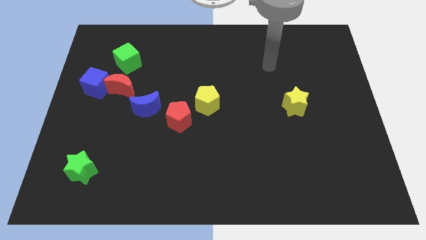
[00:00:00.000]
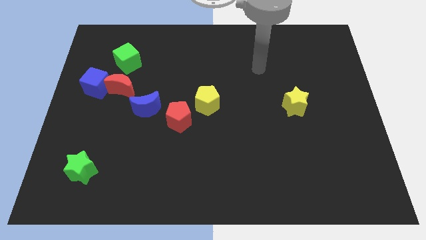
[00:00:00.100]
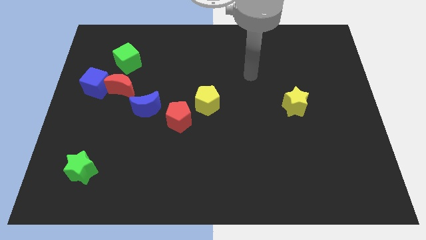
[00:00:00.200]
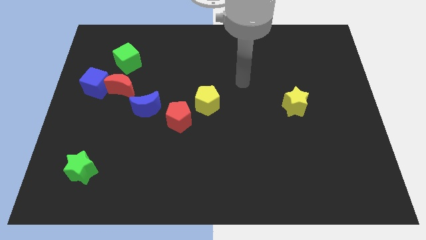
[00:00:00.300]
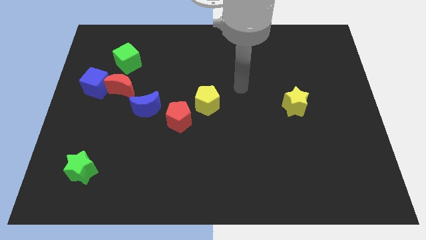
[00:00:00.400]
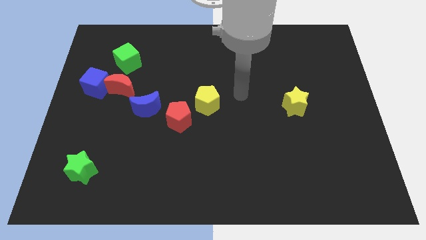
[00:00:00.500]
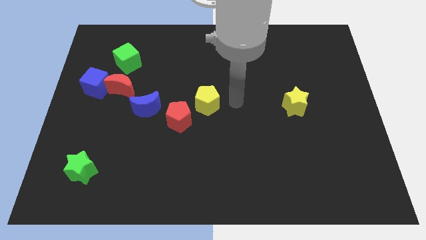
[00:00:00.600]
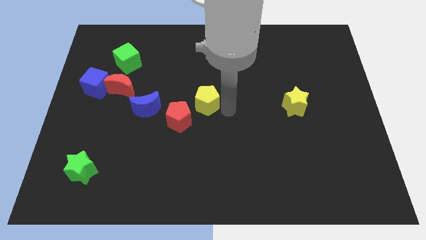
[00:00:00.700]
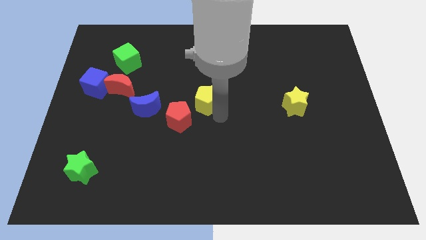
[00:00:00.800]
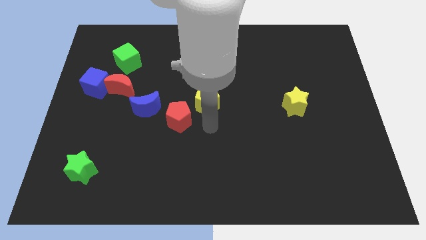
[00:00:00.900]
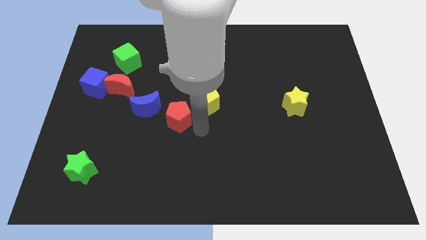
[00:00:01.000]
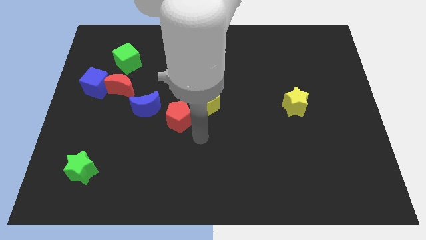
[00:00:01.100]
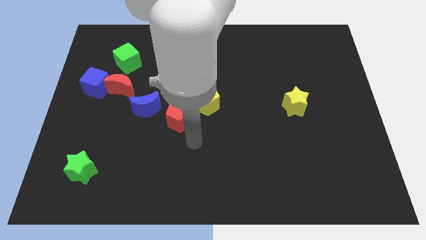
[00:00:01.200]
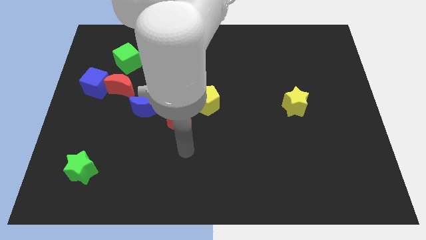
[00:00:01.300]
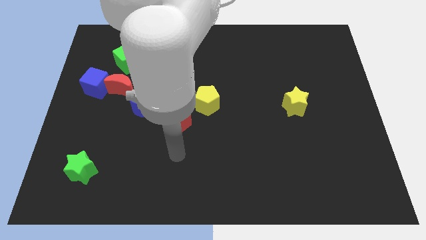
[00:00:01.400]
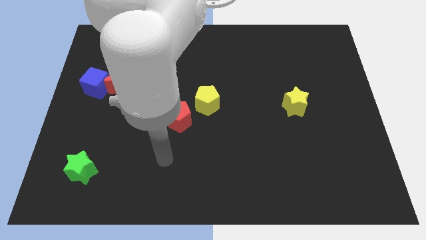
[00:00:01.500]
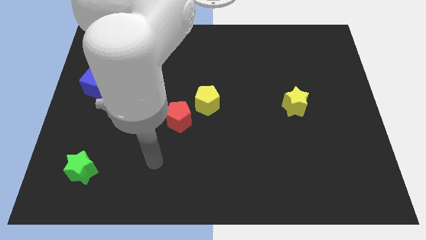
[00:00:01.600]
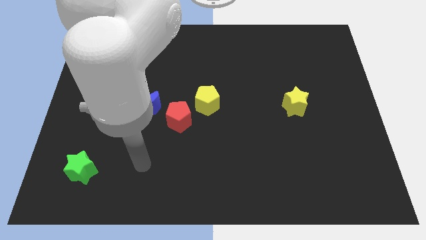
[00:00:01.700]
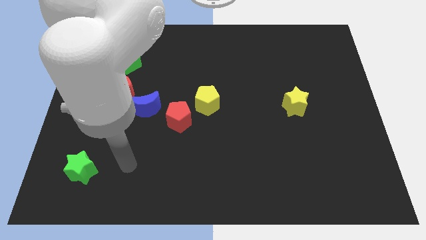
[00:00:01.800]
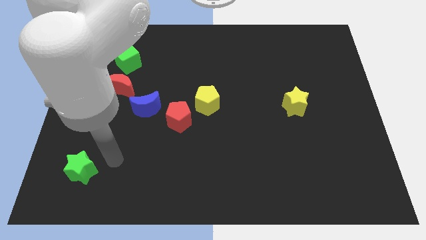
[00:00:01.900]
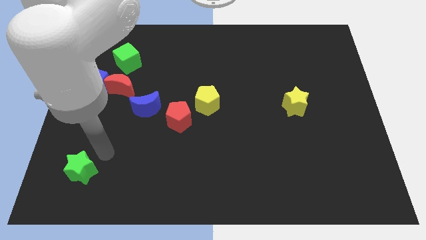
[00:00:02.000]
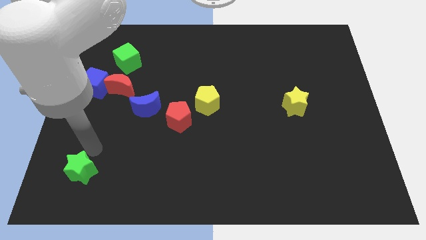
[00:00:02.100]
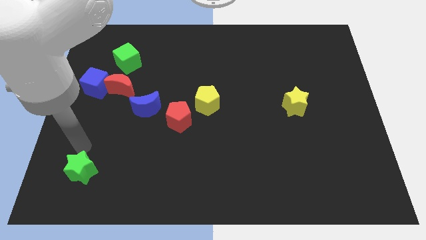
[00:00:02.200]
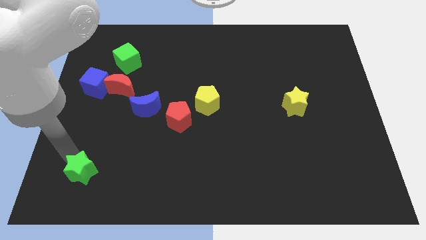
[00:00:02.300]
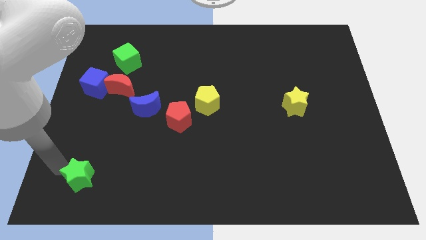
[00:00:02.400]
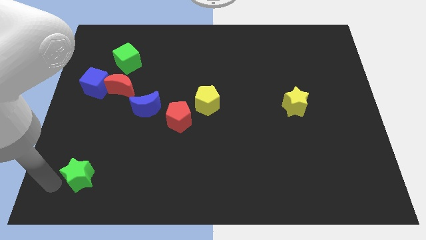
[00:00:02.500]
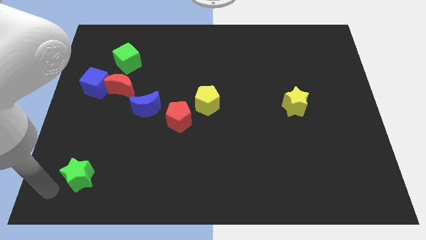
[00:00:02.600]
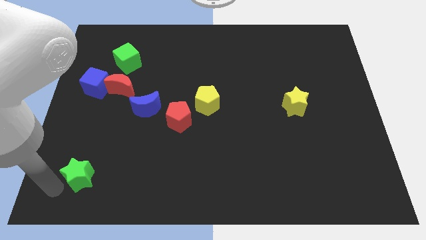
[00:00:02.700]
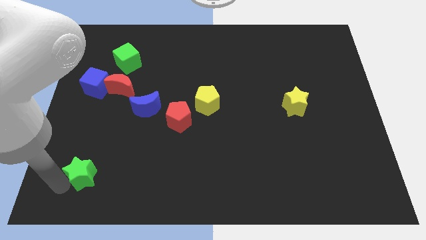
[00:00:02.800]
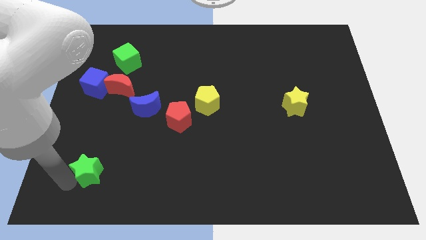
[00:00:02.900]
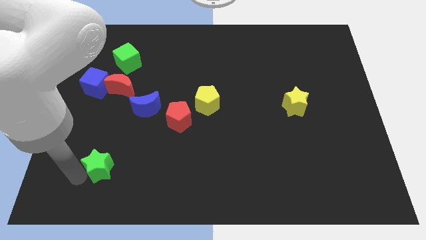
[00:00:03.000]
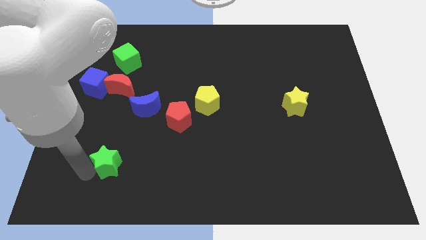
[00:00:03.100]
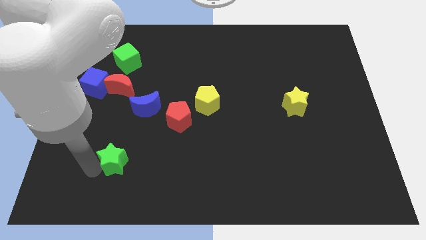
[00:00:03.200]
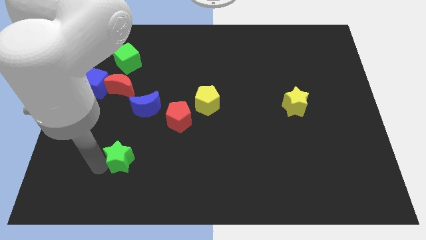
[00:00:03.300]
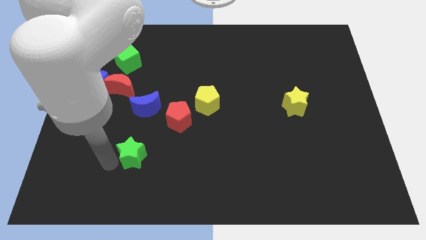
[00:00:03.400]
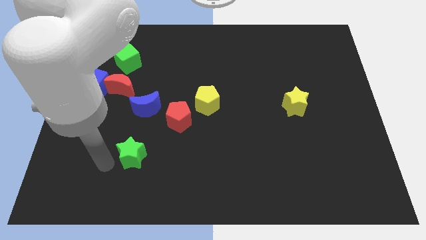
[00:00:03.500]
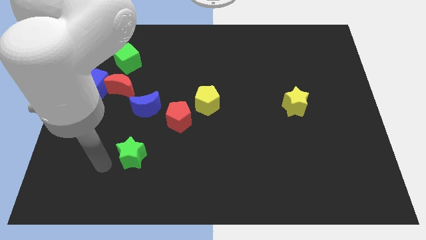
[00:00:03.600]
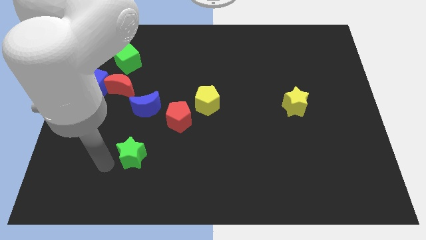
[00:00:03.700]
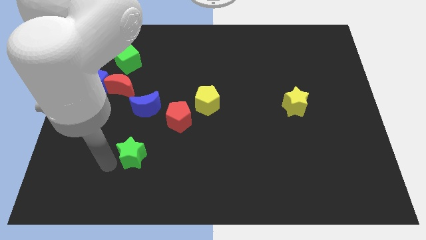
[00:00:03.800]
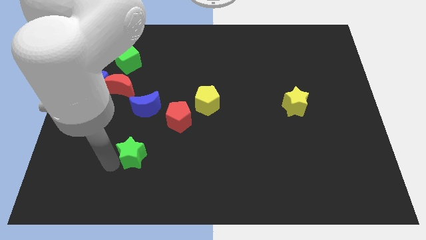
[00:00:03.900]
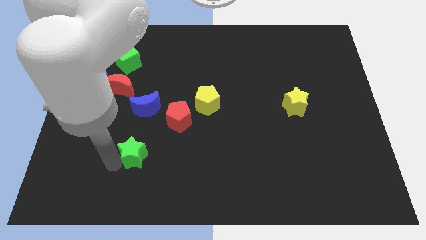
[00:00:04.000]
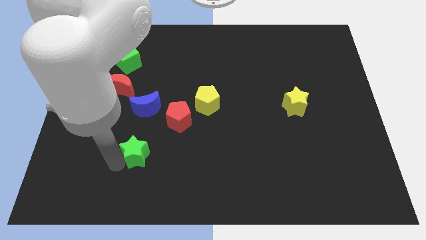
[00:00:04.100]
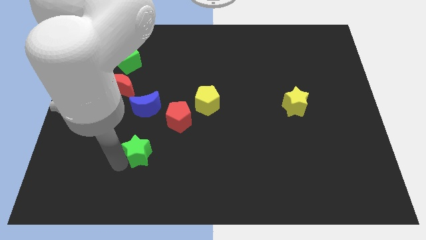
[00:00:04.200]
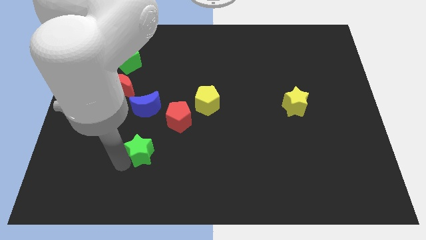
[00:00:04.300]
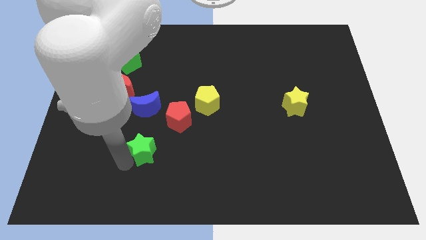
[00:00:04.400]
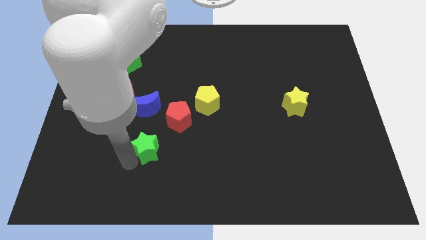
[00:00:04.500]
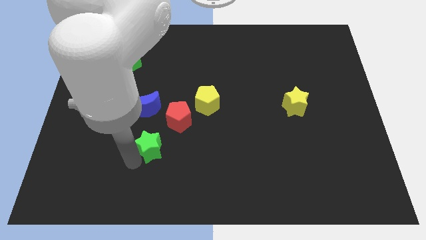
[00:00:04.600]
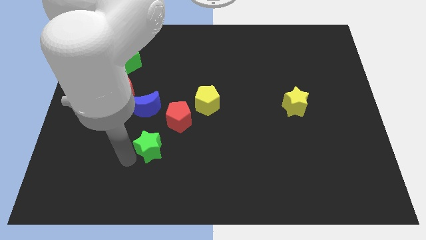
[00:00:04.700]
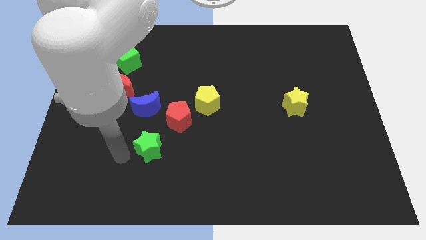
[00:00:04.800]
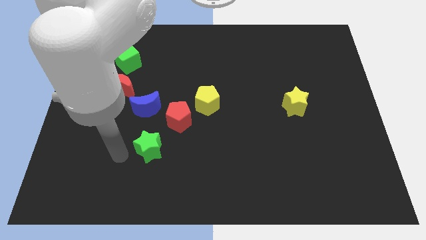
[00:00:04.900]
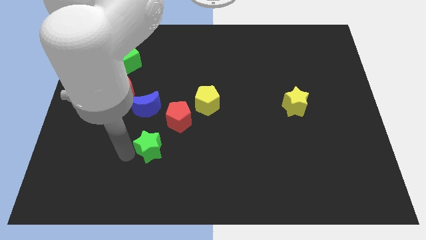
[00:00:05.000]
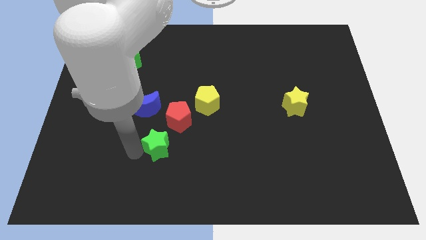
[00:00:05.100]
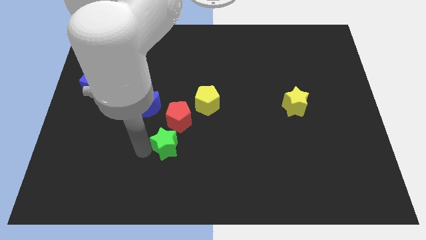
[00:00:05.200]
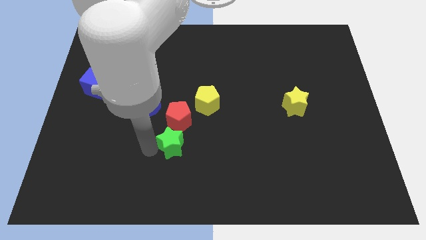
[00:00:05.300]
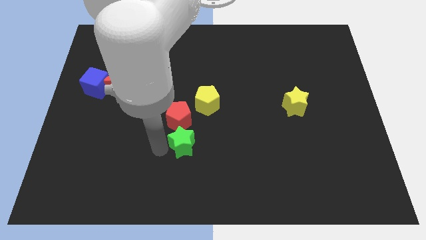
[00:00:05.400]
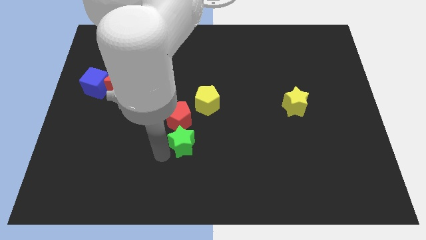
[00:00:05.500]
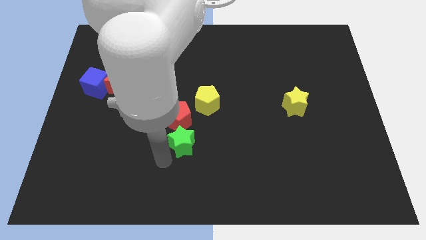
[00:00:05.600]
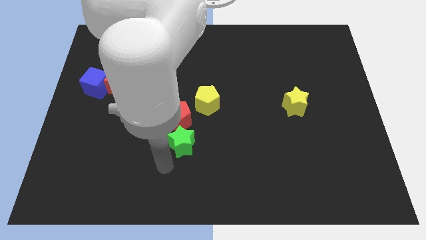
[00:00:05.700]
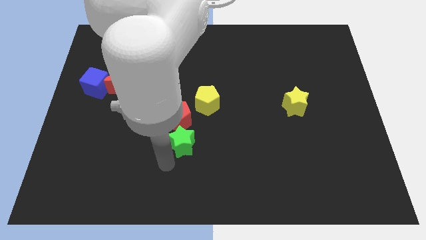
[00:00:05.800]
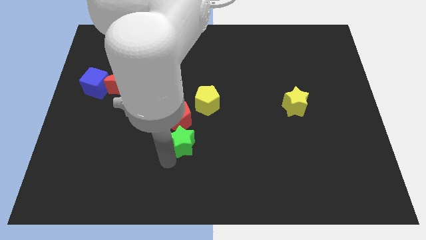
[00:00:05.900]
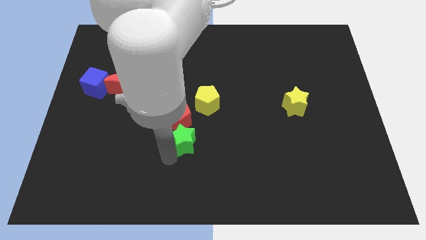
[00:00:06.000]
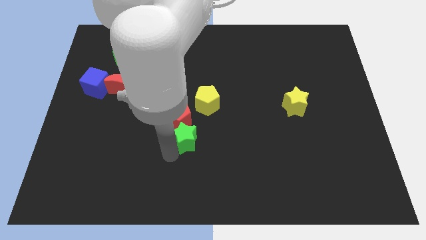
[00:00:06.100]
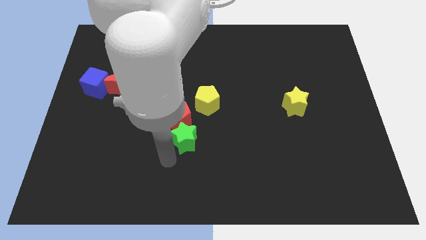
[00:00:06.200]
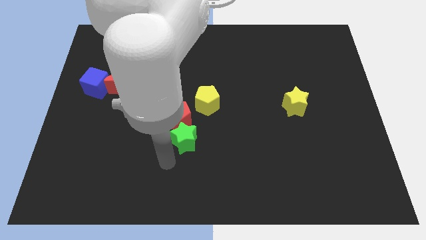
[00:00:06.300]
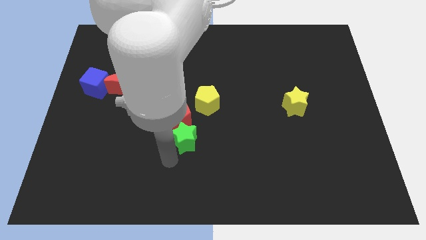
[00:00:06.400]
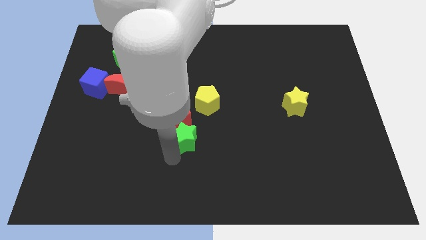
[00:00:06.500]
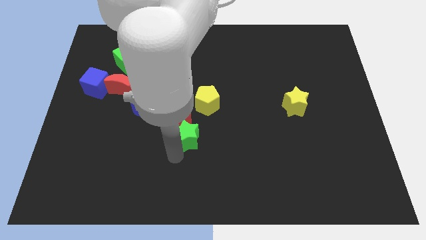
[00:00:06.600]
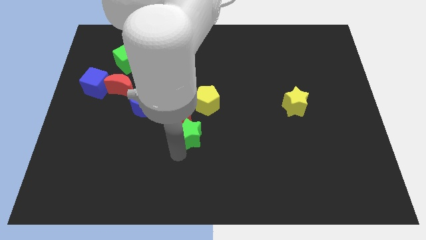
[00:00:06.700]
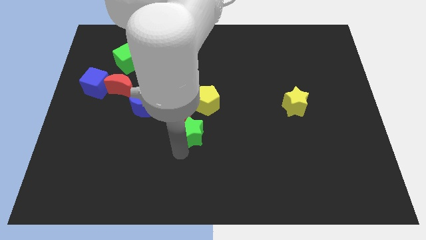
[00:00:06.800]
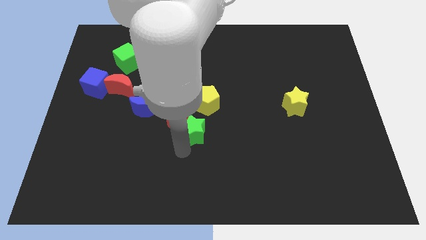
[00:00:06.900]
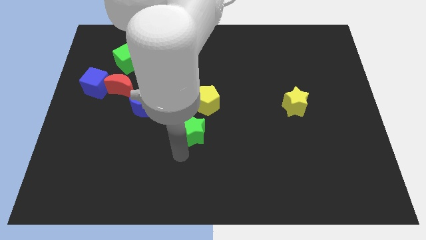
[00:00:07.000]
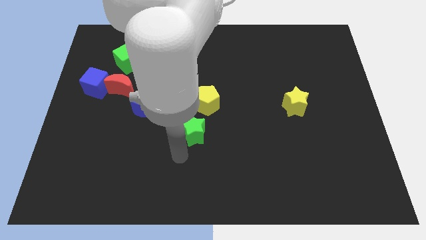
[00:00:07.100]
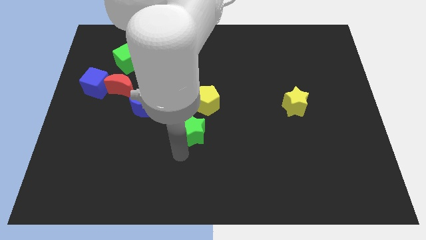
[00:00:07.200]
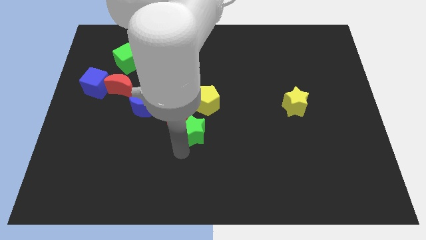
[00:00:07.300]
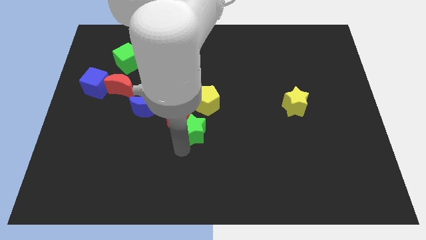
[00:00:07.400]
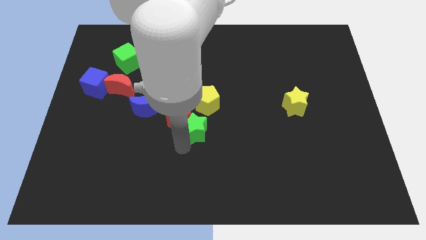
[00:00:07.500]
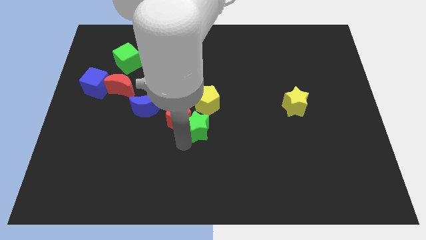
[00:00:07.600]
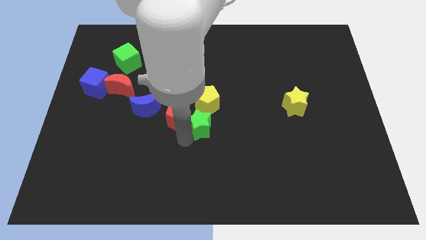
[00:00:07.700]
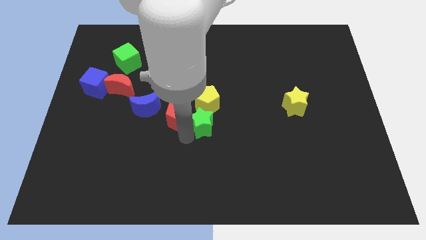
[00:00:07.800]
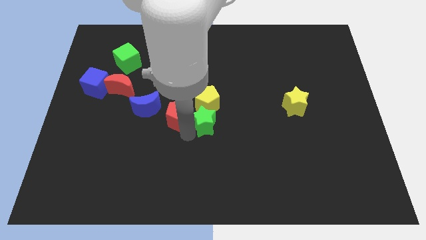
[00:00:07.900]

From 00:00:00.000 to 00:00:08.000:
put the green star towards the yellow pentagon
